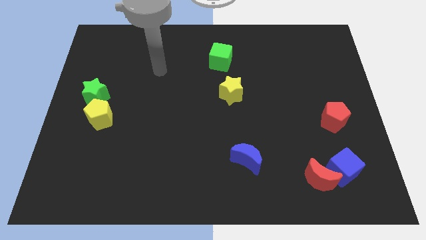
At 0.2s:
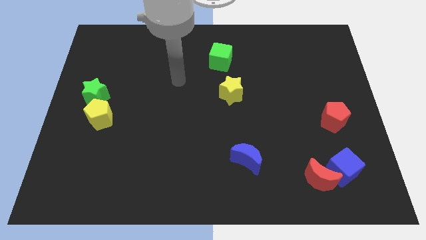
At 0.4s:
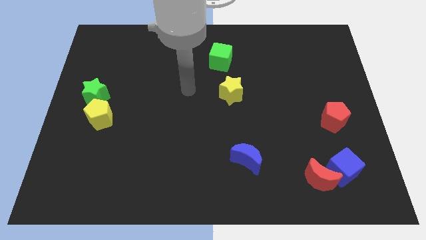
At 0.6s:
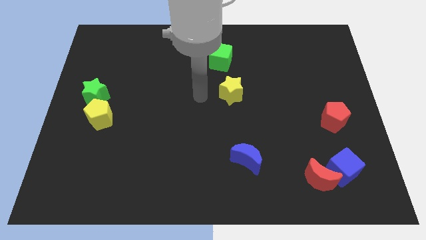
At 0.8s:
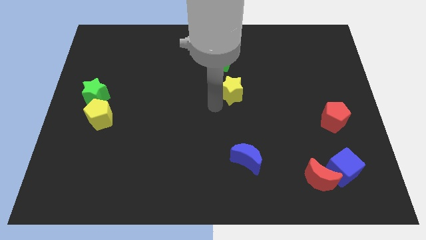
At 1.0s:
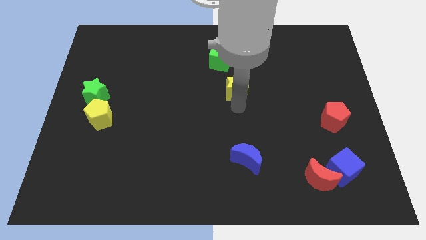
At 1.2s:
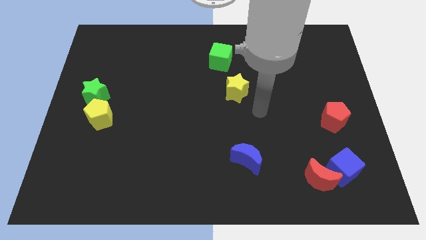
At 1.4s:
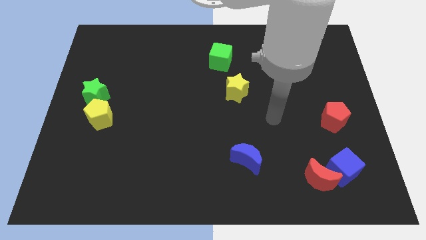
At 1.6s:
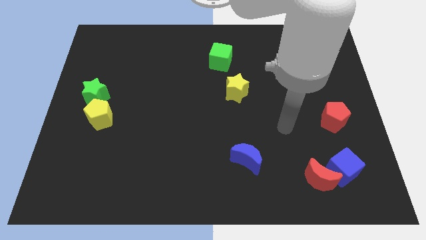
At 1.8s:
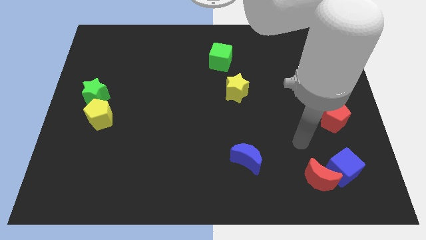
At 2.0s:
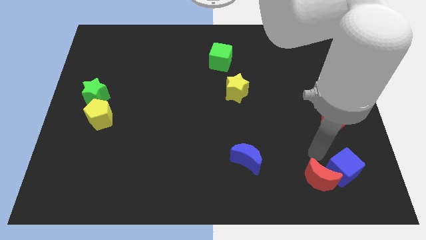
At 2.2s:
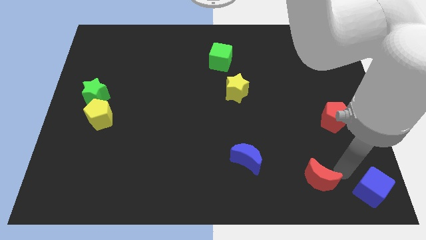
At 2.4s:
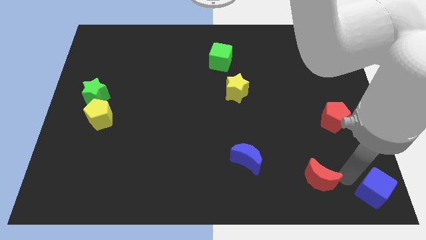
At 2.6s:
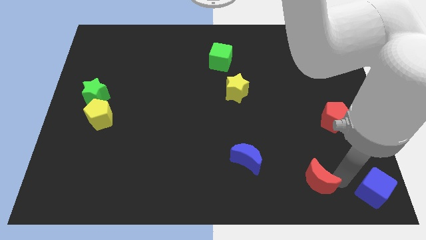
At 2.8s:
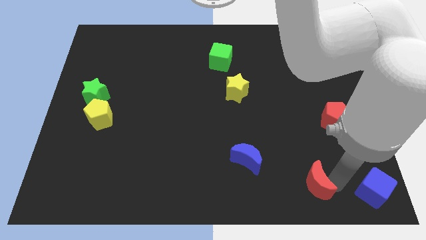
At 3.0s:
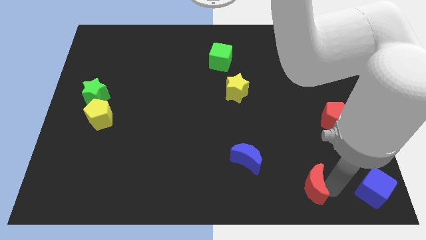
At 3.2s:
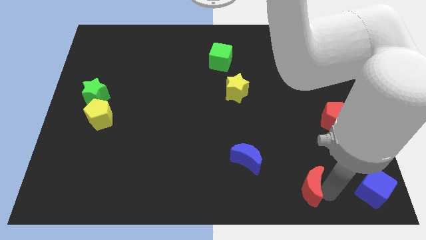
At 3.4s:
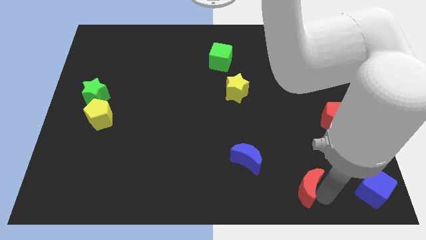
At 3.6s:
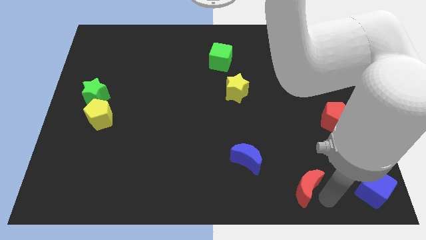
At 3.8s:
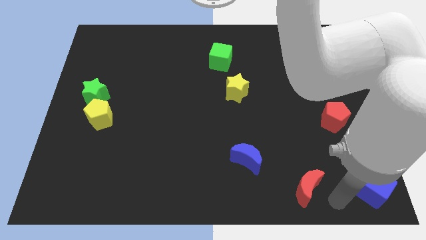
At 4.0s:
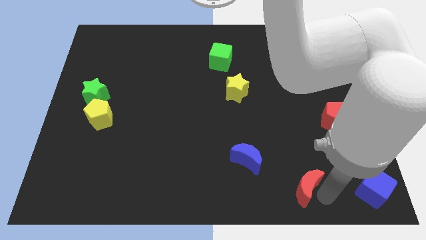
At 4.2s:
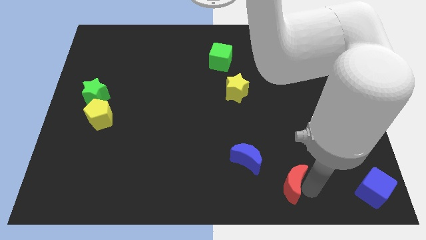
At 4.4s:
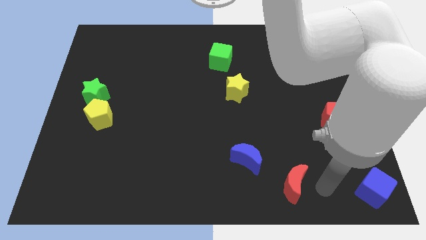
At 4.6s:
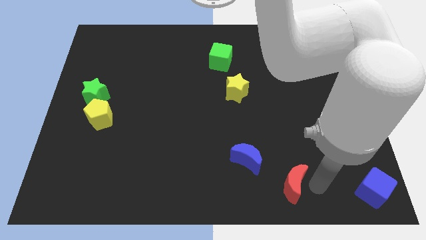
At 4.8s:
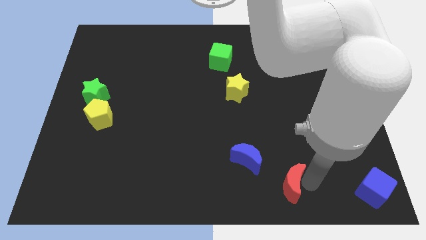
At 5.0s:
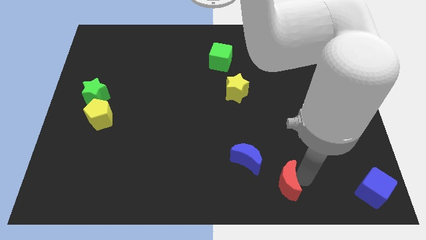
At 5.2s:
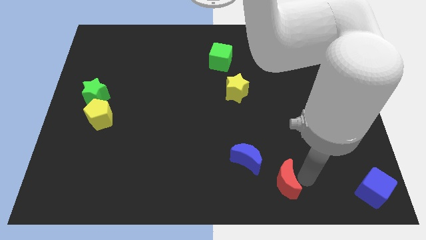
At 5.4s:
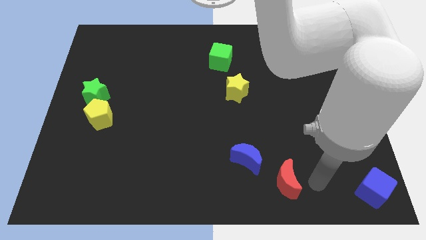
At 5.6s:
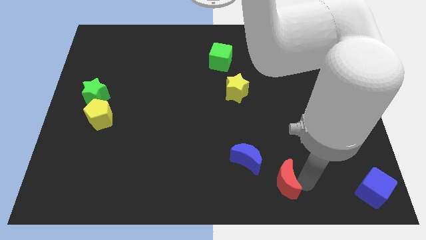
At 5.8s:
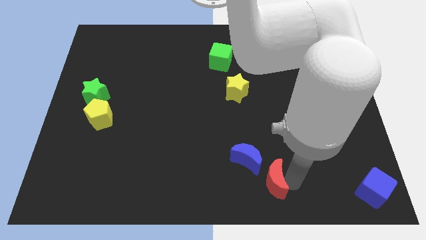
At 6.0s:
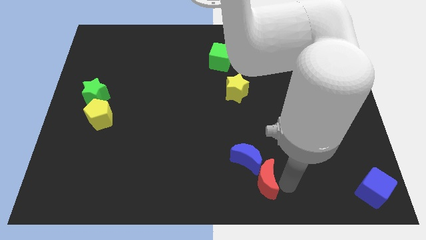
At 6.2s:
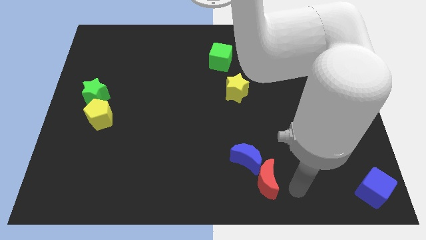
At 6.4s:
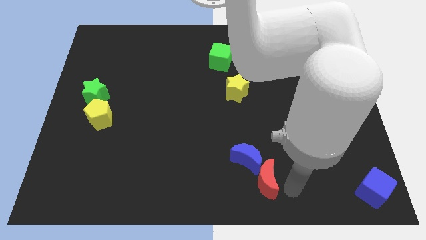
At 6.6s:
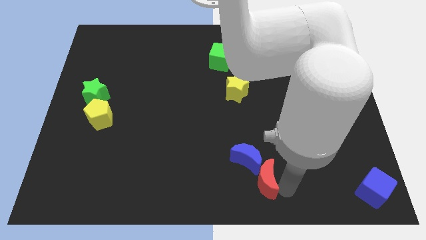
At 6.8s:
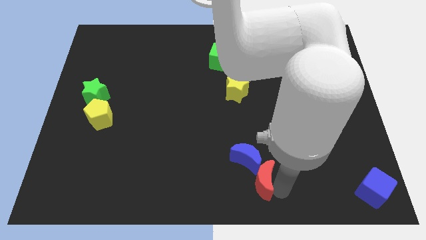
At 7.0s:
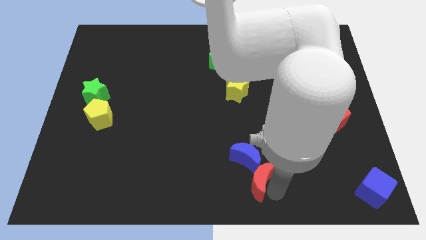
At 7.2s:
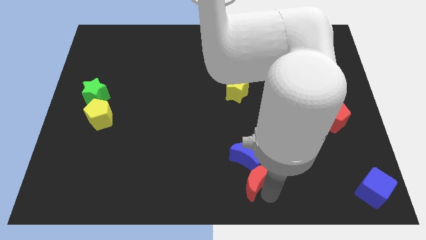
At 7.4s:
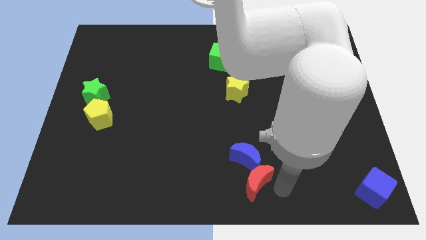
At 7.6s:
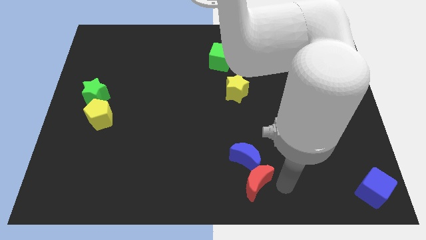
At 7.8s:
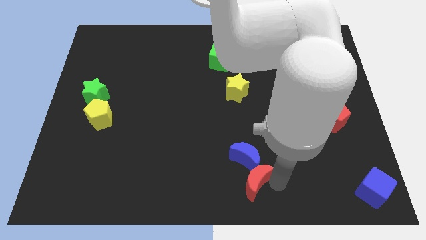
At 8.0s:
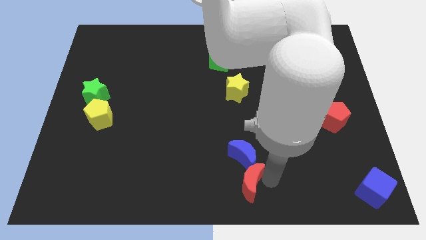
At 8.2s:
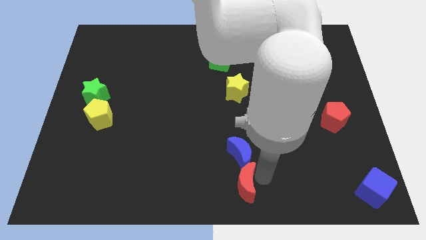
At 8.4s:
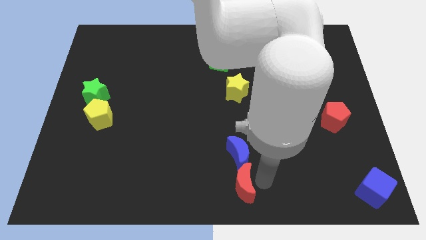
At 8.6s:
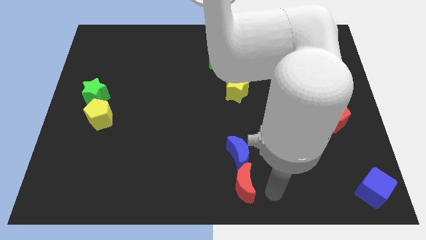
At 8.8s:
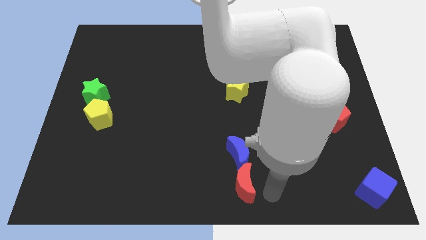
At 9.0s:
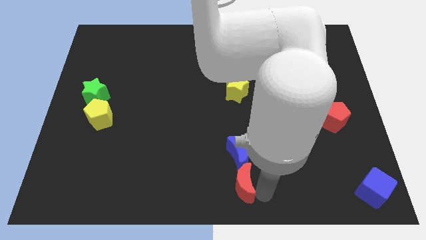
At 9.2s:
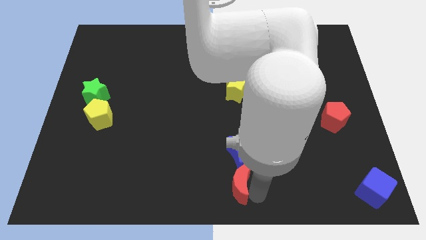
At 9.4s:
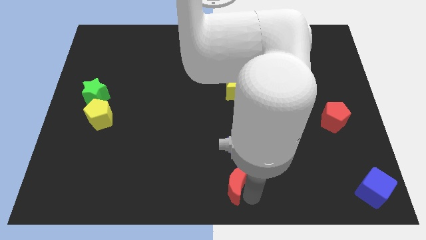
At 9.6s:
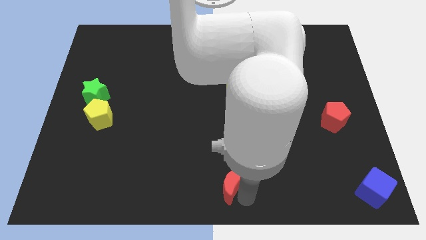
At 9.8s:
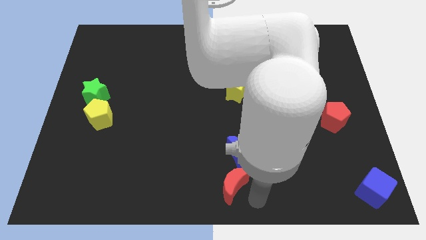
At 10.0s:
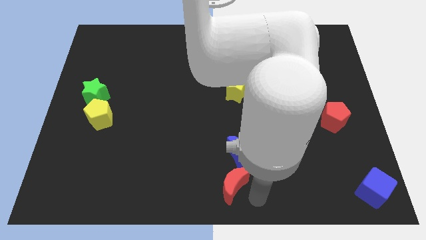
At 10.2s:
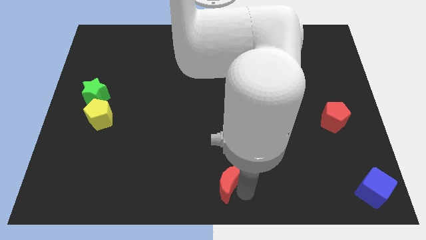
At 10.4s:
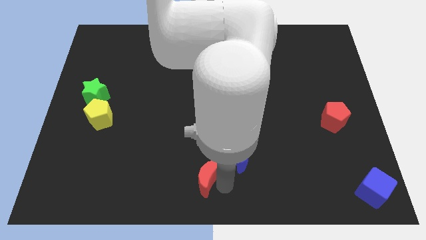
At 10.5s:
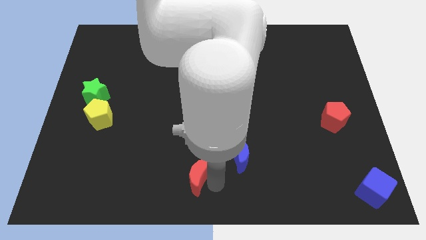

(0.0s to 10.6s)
move the red moon just left of the blue moon

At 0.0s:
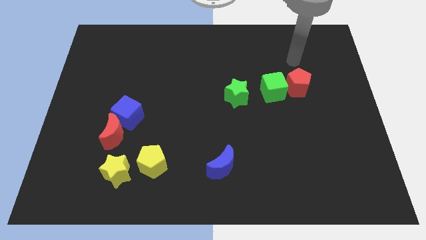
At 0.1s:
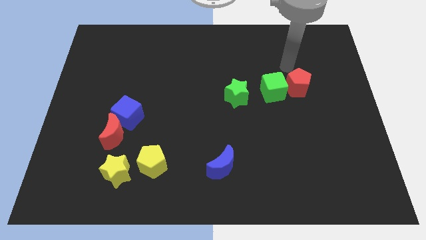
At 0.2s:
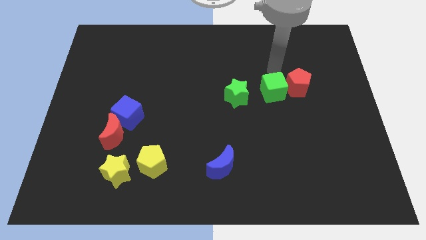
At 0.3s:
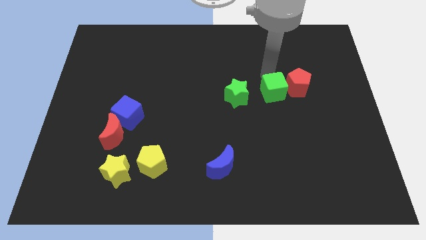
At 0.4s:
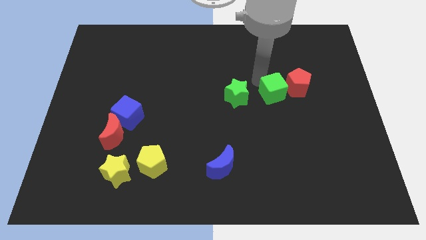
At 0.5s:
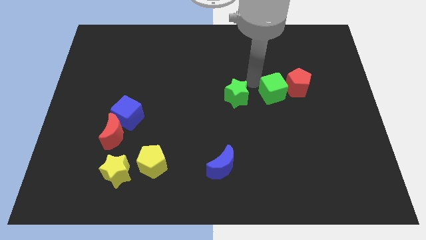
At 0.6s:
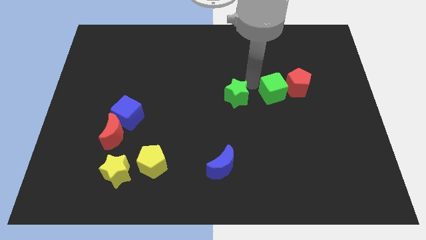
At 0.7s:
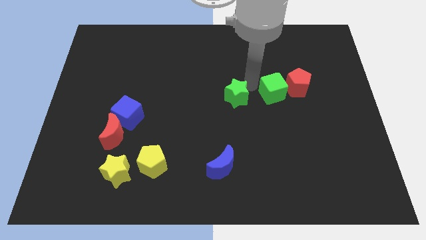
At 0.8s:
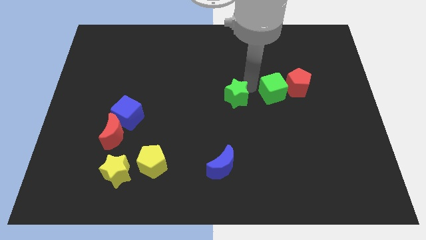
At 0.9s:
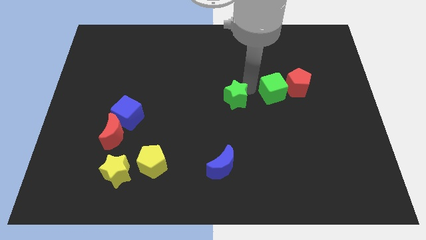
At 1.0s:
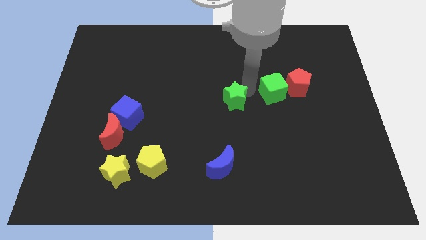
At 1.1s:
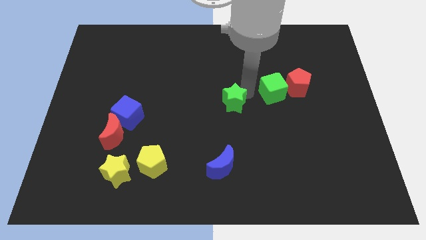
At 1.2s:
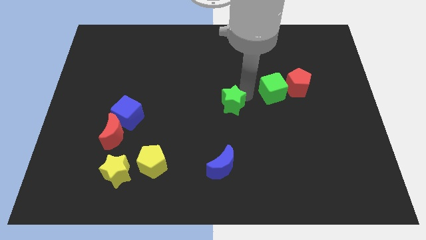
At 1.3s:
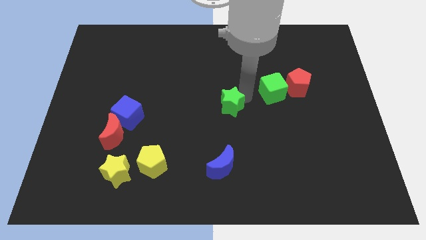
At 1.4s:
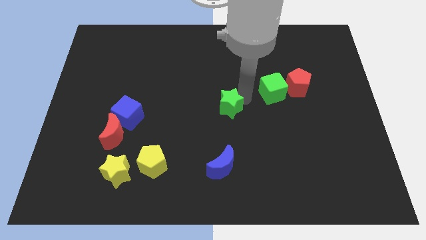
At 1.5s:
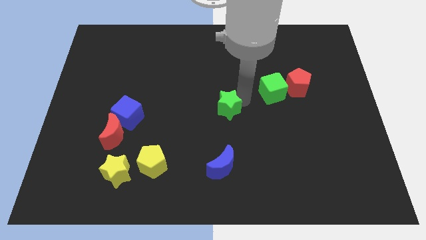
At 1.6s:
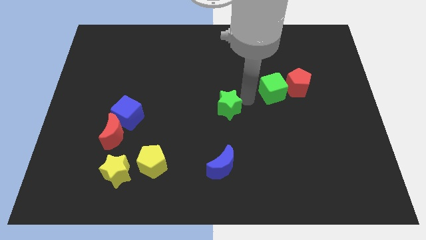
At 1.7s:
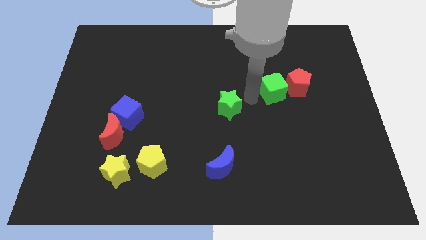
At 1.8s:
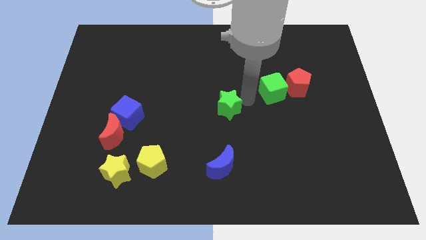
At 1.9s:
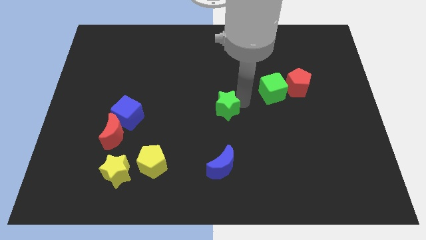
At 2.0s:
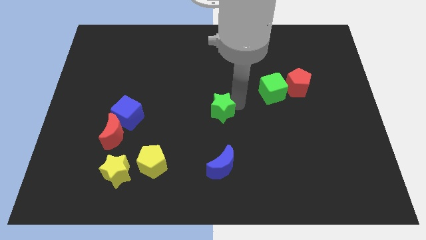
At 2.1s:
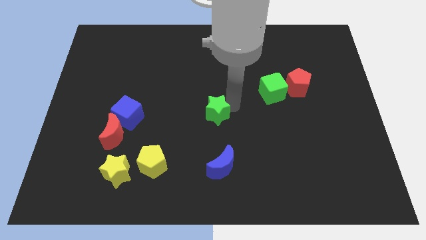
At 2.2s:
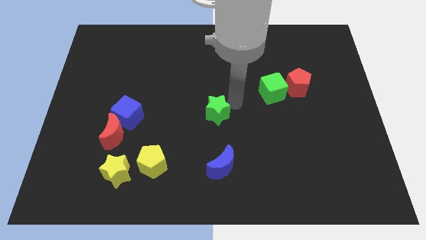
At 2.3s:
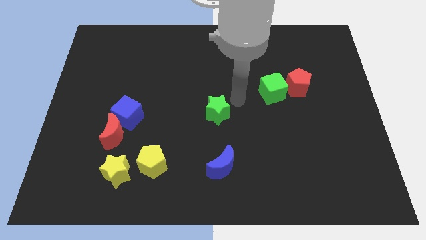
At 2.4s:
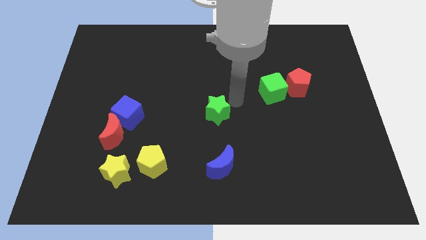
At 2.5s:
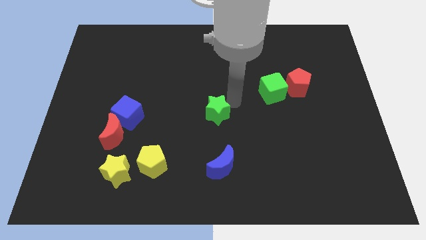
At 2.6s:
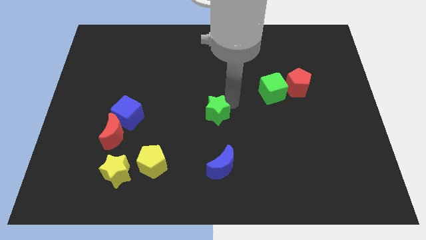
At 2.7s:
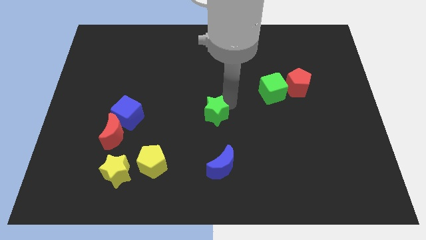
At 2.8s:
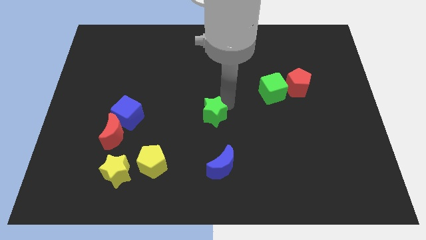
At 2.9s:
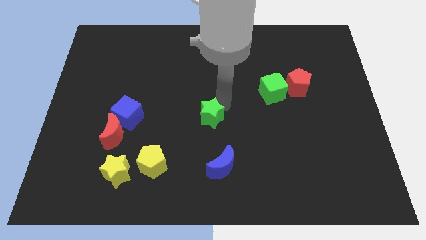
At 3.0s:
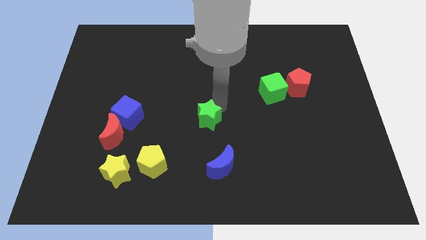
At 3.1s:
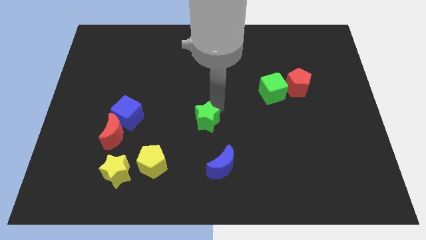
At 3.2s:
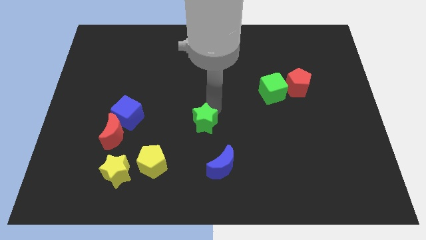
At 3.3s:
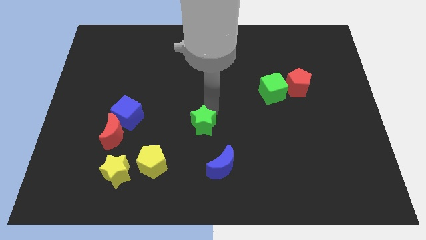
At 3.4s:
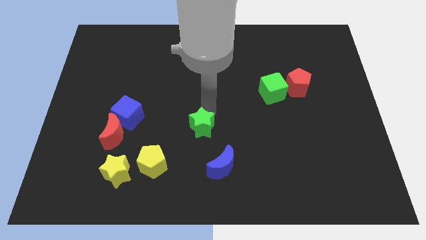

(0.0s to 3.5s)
slide the green star to the top left of the blue moon
